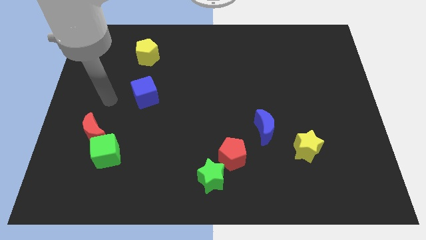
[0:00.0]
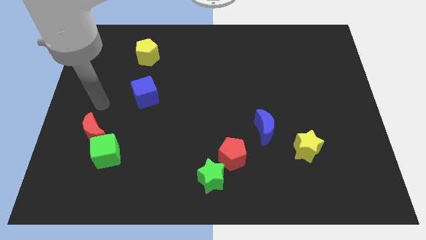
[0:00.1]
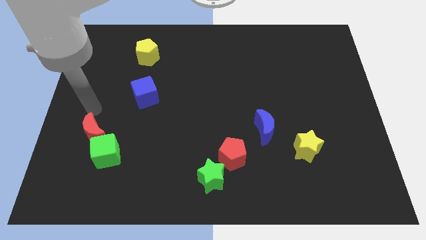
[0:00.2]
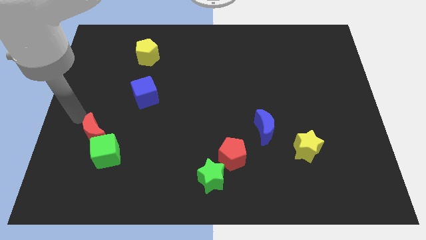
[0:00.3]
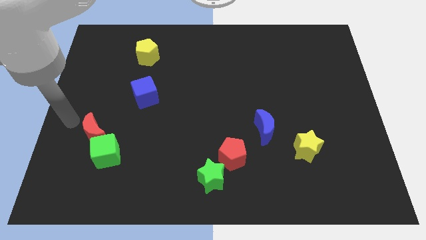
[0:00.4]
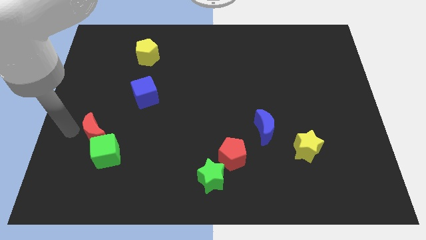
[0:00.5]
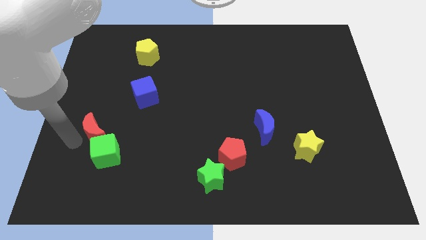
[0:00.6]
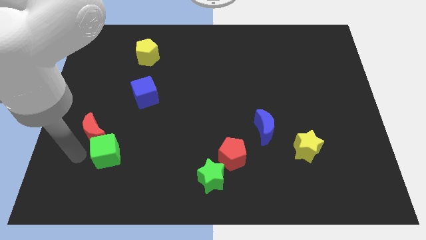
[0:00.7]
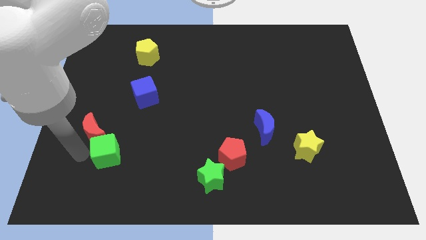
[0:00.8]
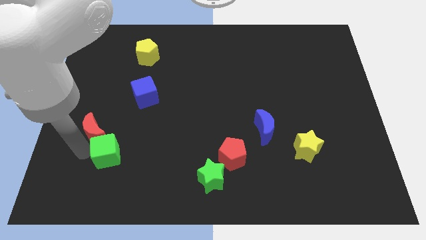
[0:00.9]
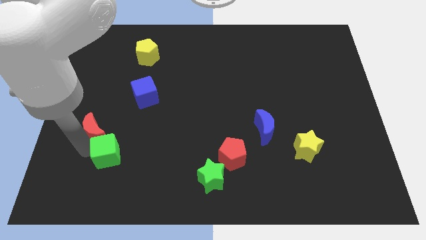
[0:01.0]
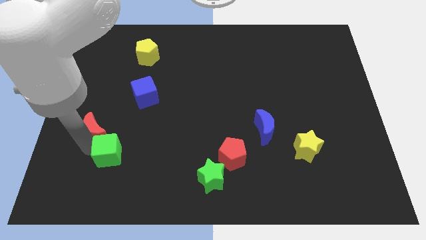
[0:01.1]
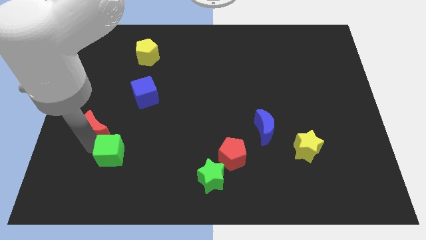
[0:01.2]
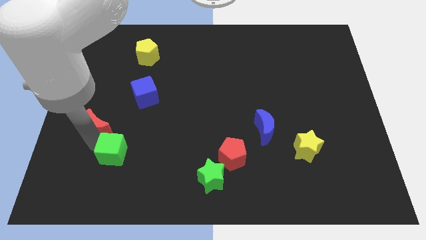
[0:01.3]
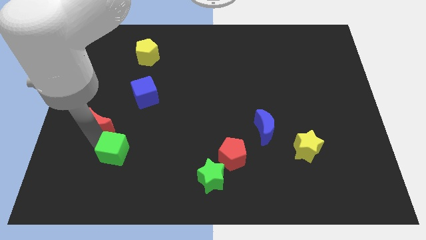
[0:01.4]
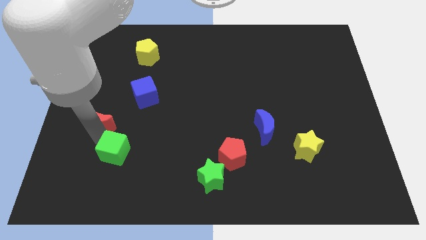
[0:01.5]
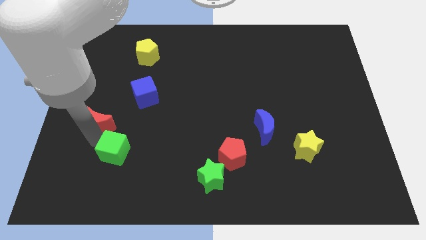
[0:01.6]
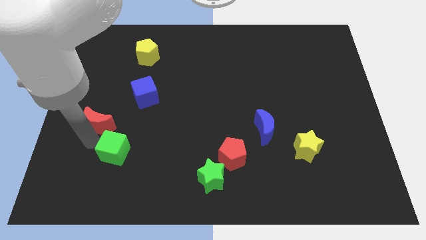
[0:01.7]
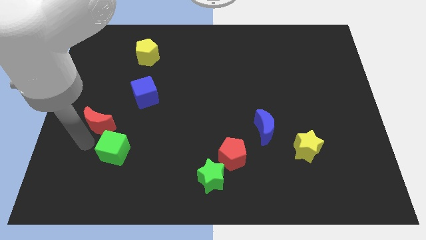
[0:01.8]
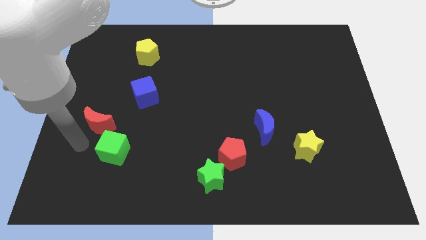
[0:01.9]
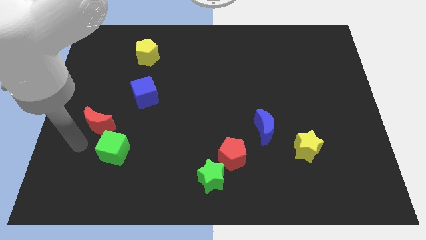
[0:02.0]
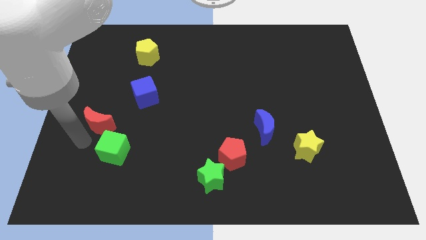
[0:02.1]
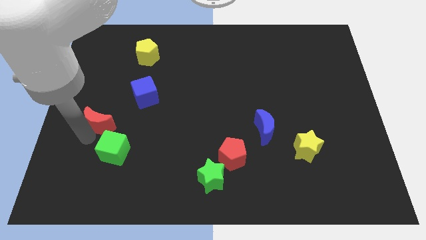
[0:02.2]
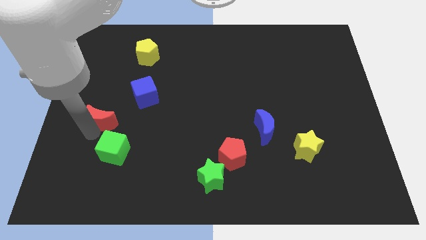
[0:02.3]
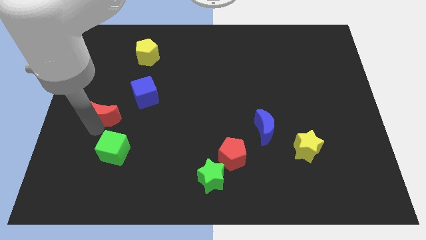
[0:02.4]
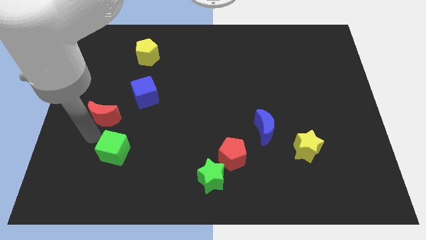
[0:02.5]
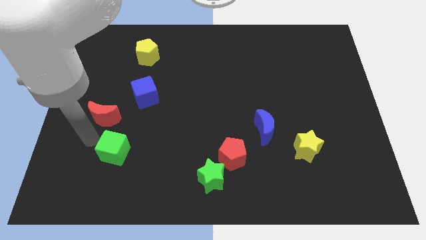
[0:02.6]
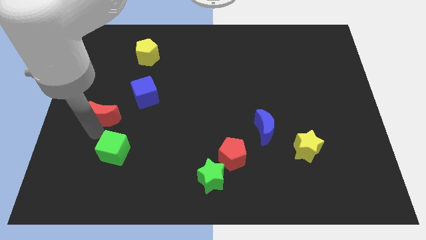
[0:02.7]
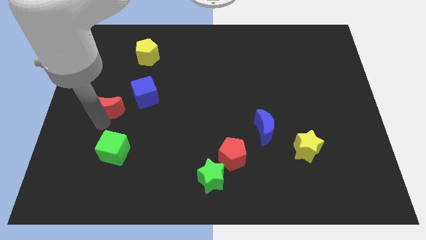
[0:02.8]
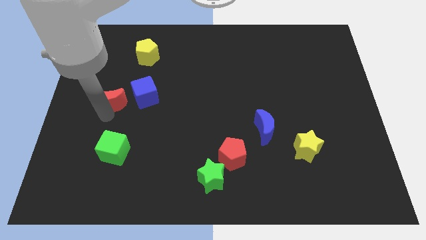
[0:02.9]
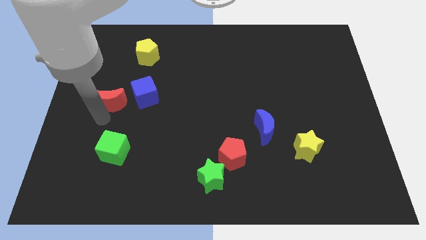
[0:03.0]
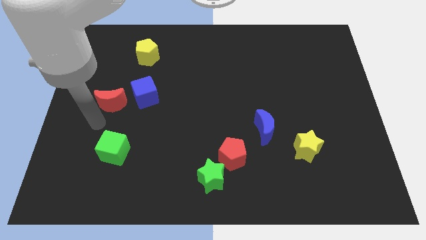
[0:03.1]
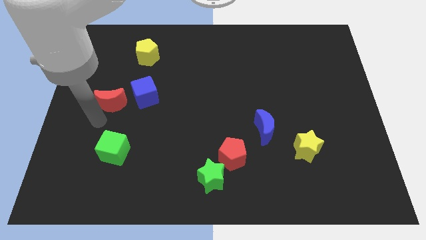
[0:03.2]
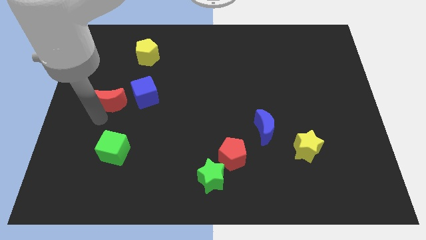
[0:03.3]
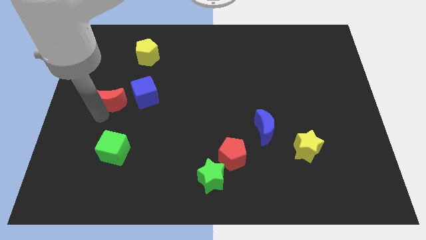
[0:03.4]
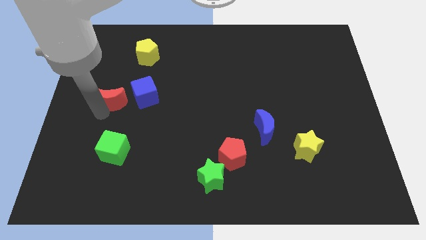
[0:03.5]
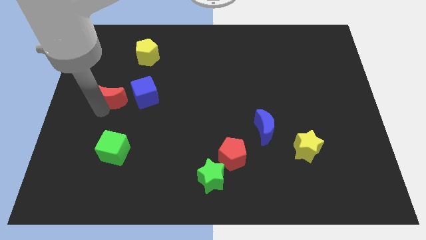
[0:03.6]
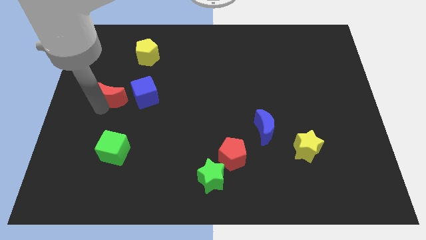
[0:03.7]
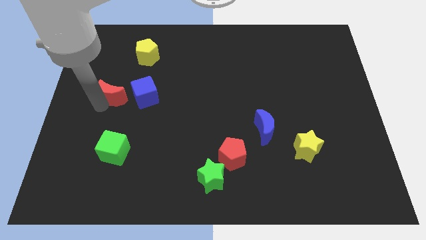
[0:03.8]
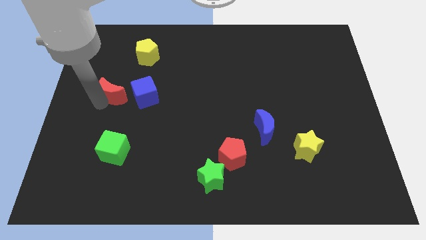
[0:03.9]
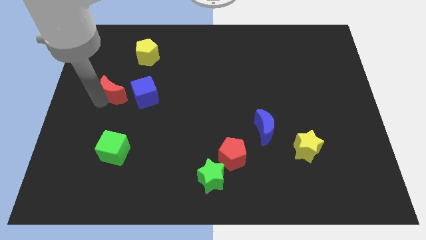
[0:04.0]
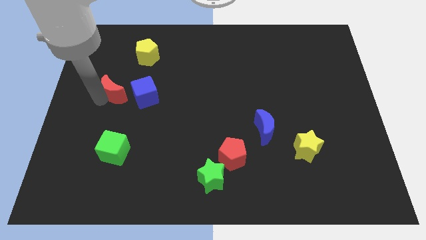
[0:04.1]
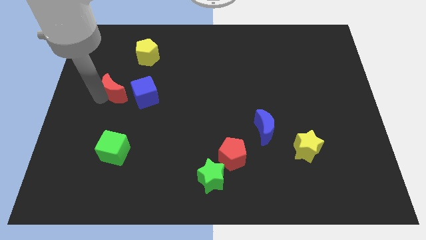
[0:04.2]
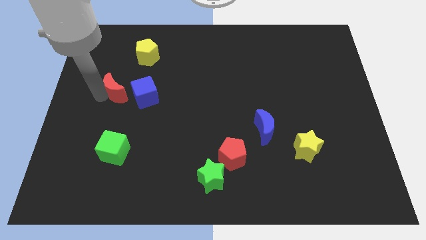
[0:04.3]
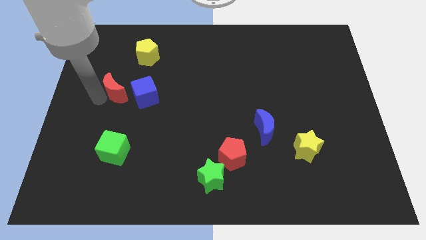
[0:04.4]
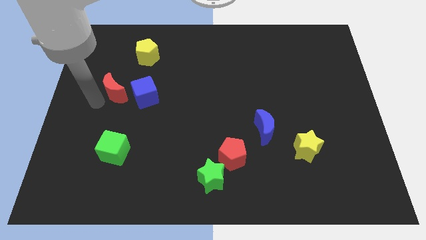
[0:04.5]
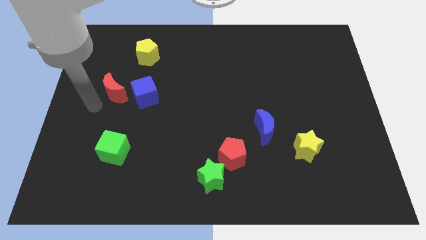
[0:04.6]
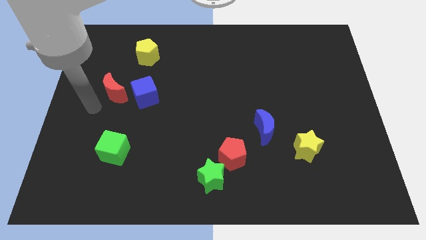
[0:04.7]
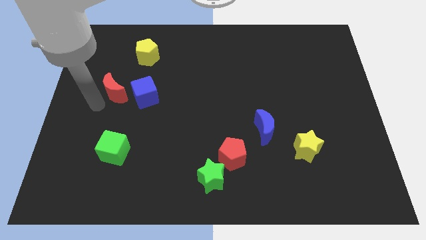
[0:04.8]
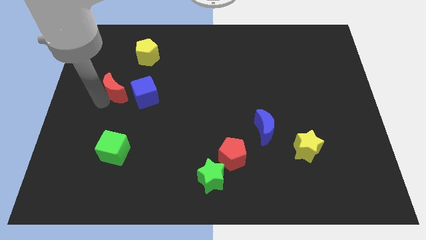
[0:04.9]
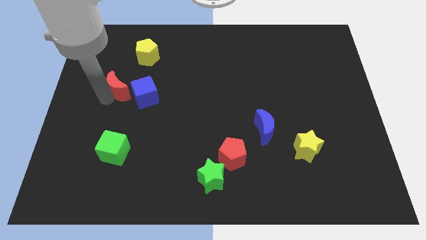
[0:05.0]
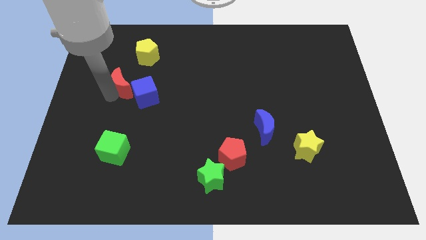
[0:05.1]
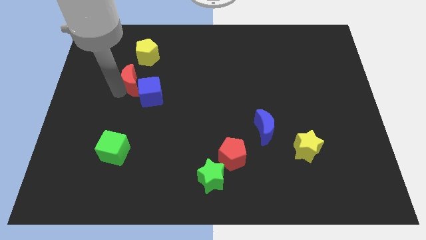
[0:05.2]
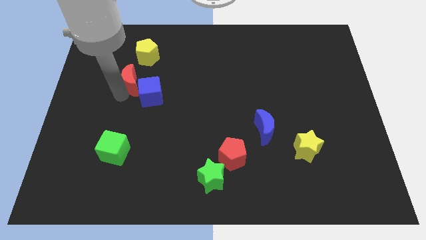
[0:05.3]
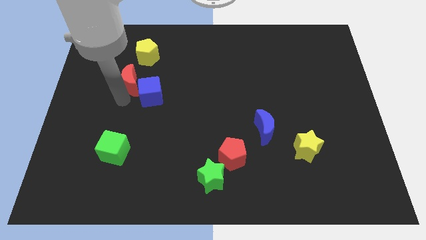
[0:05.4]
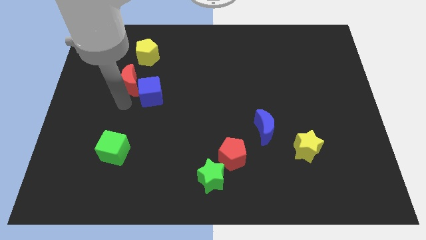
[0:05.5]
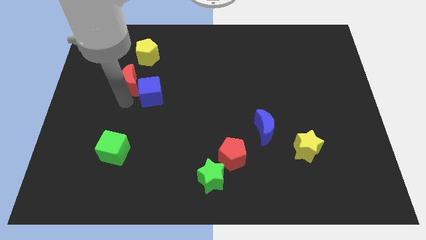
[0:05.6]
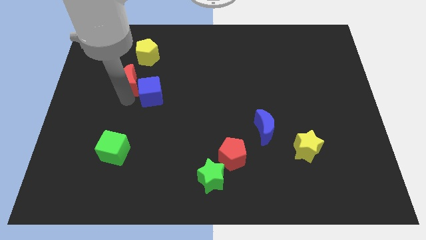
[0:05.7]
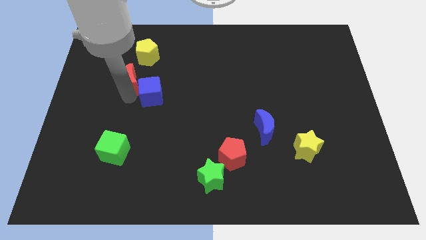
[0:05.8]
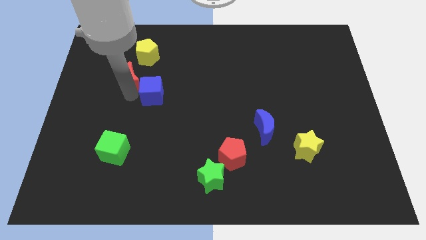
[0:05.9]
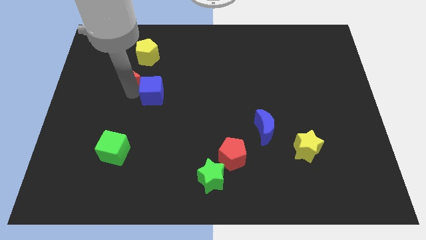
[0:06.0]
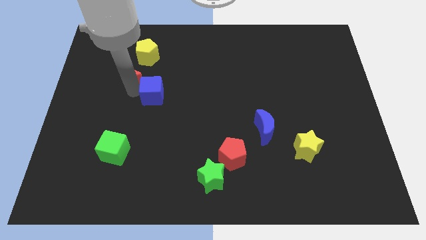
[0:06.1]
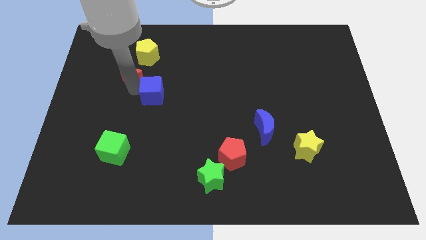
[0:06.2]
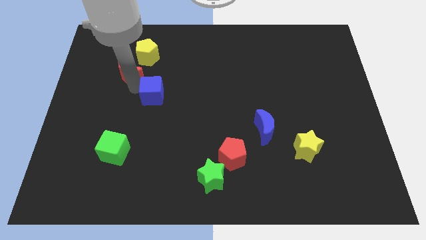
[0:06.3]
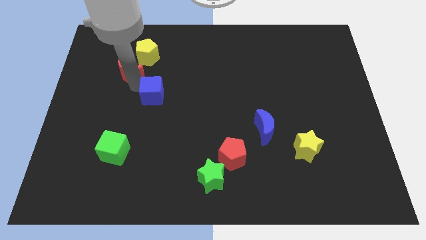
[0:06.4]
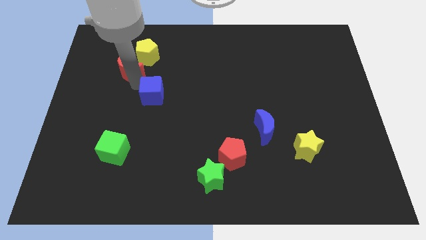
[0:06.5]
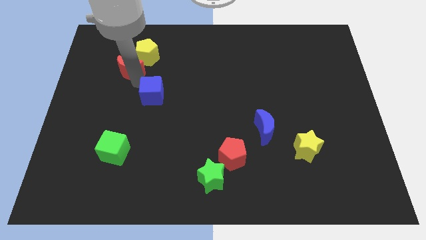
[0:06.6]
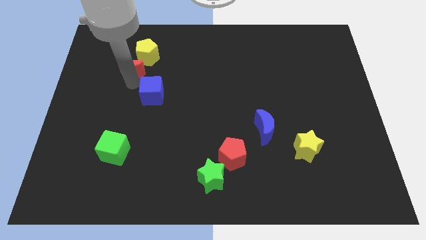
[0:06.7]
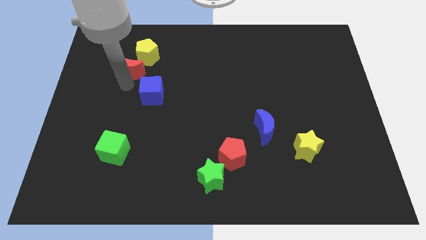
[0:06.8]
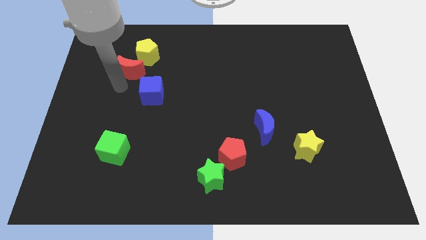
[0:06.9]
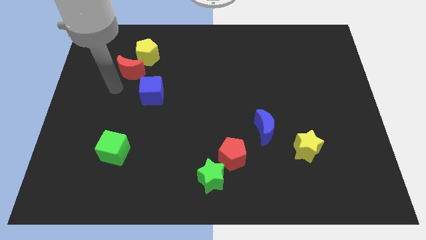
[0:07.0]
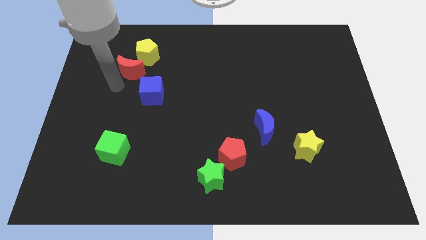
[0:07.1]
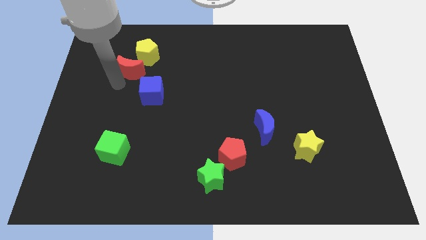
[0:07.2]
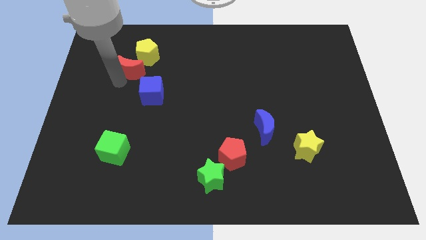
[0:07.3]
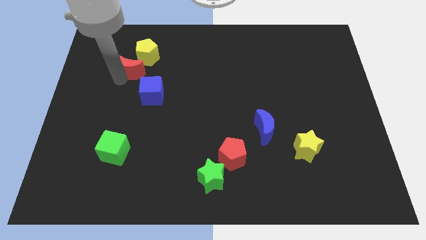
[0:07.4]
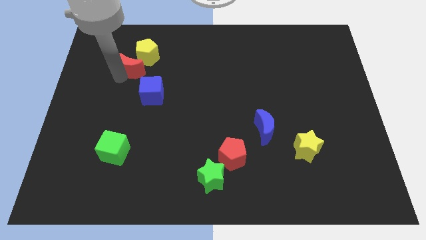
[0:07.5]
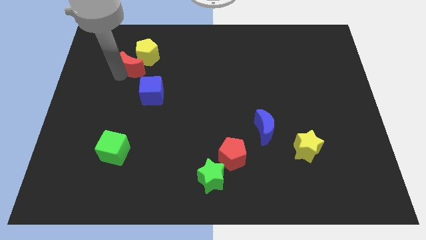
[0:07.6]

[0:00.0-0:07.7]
push the red moon close to the yellow pentagon
